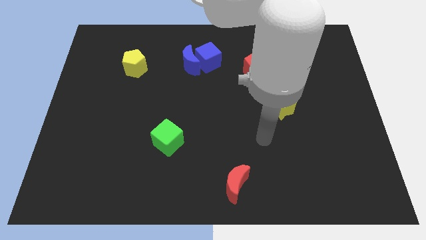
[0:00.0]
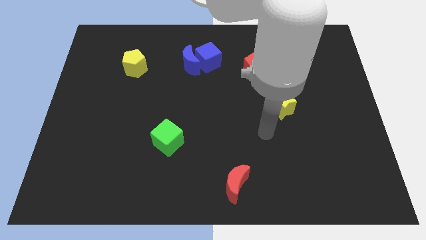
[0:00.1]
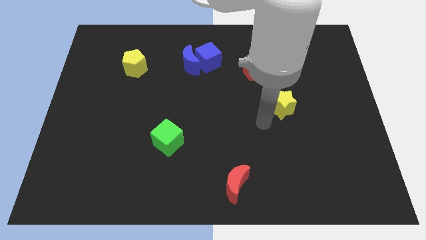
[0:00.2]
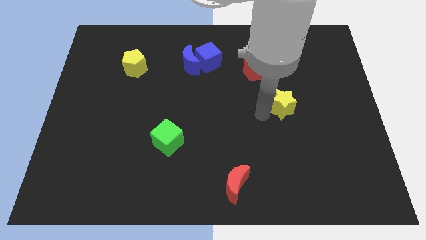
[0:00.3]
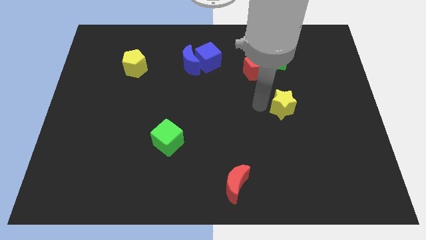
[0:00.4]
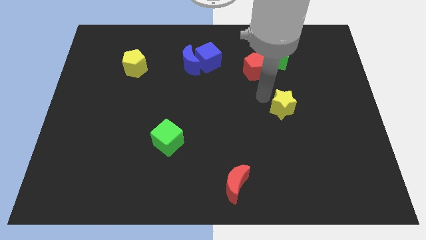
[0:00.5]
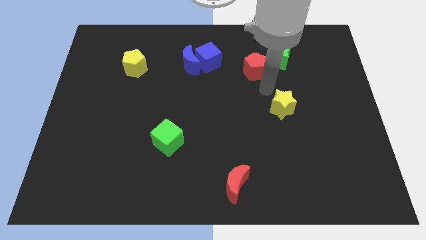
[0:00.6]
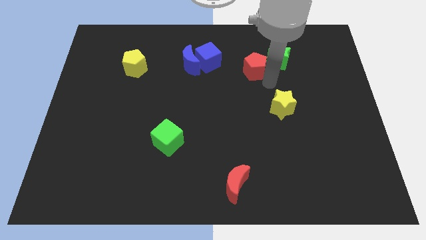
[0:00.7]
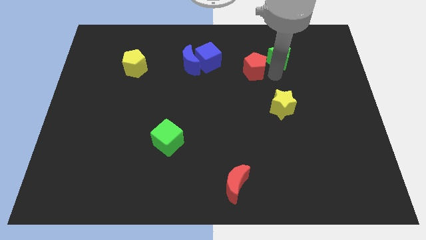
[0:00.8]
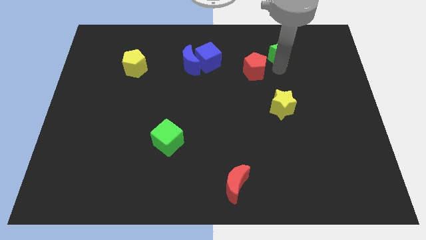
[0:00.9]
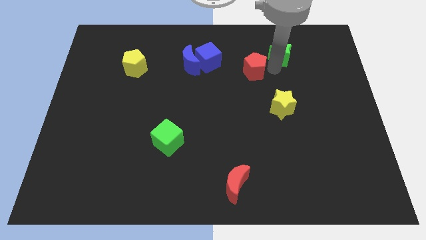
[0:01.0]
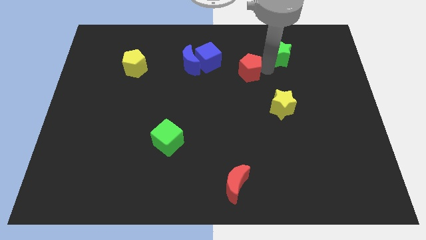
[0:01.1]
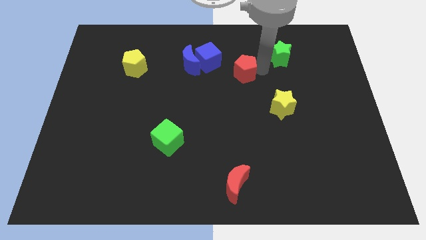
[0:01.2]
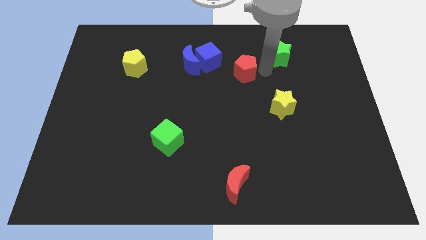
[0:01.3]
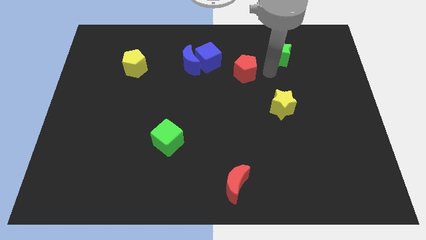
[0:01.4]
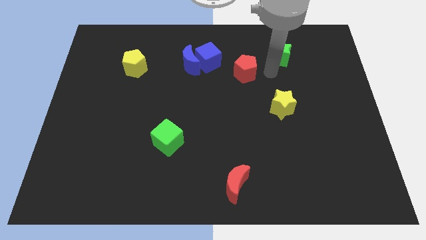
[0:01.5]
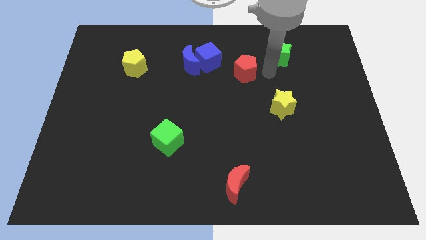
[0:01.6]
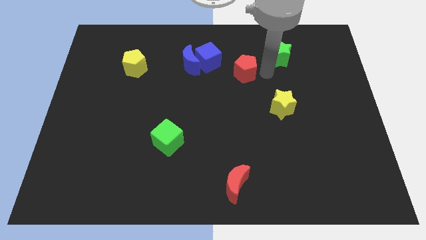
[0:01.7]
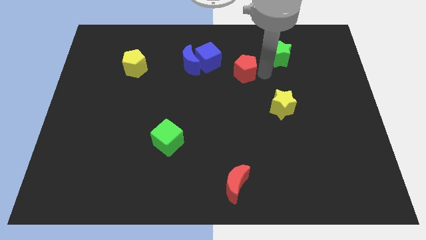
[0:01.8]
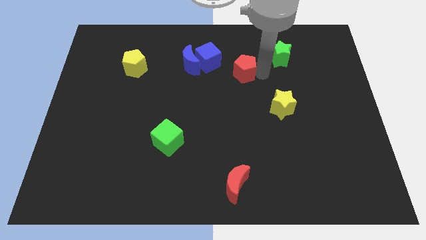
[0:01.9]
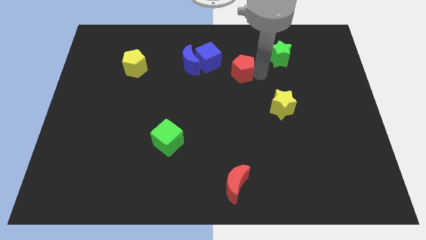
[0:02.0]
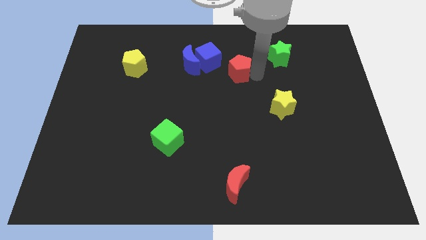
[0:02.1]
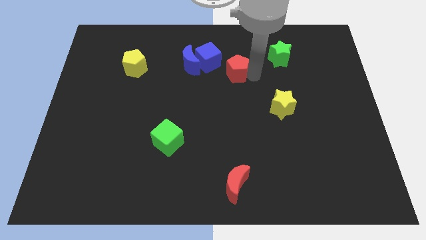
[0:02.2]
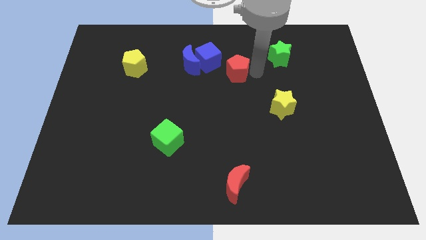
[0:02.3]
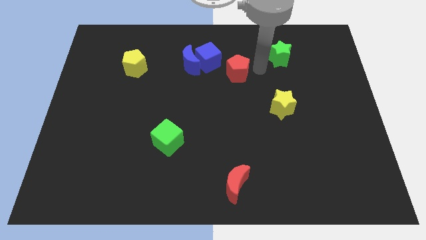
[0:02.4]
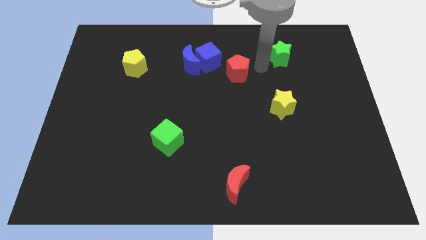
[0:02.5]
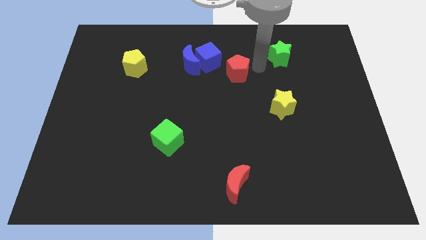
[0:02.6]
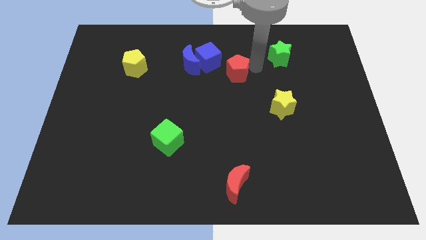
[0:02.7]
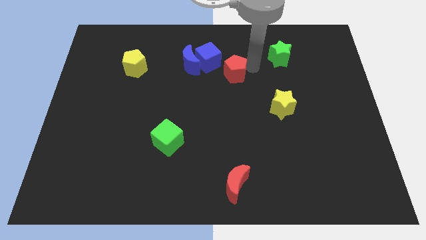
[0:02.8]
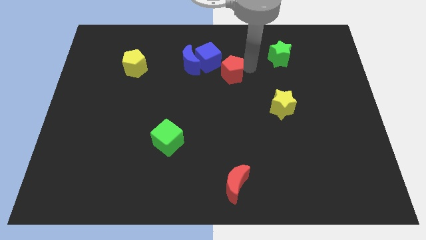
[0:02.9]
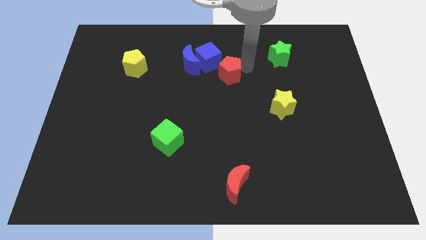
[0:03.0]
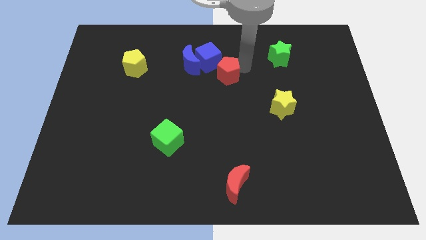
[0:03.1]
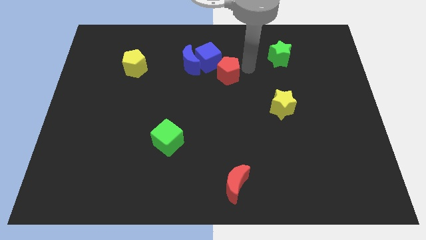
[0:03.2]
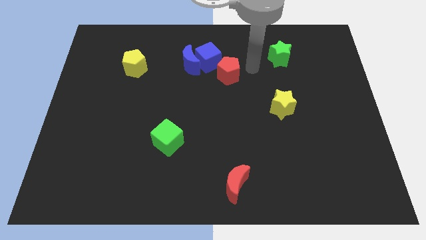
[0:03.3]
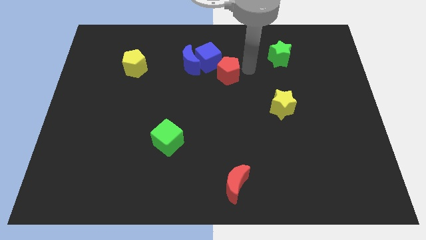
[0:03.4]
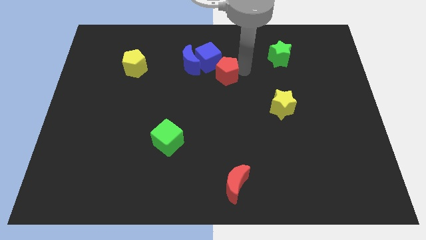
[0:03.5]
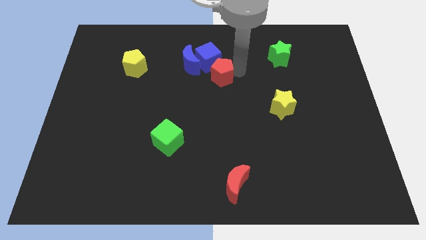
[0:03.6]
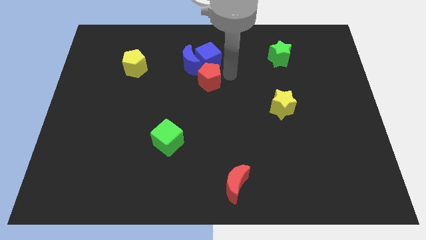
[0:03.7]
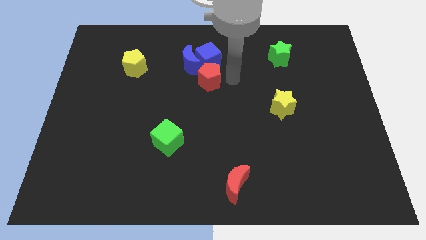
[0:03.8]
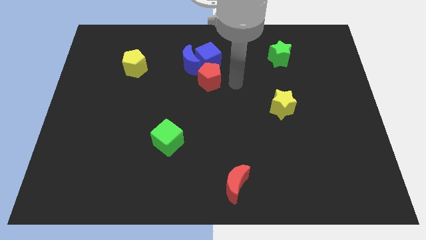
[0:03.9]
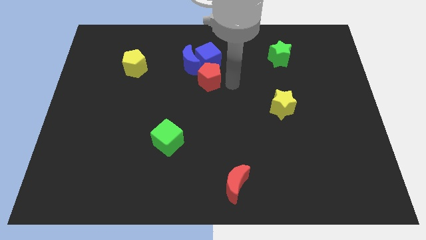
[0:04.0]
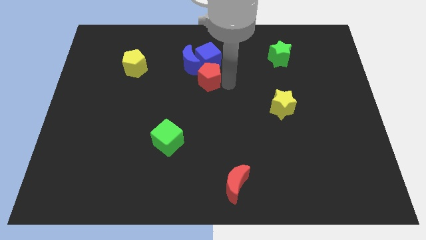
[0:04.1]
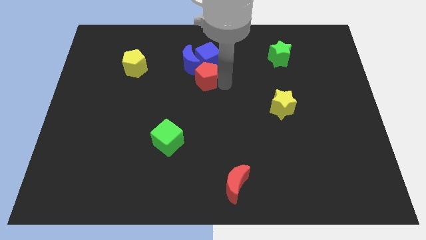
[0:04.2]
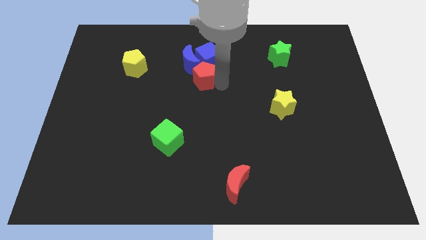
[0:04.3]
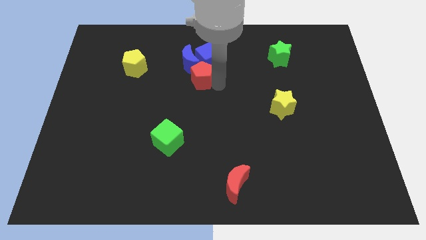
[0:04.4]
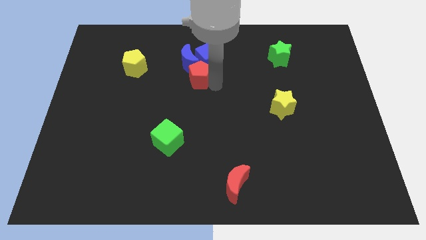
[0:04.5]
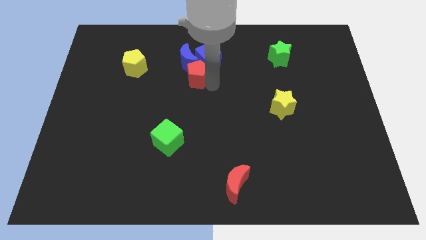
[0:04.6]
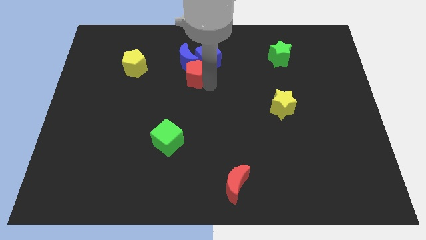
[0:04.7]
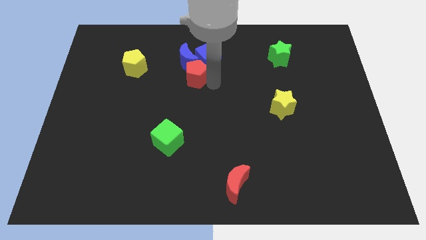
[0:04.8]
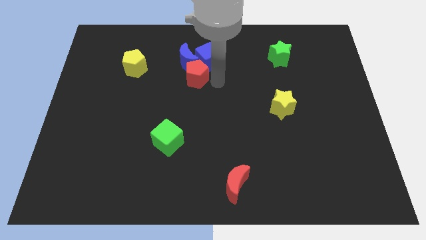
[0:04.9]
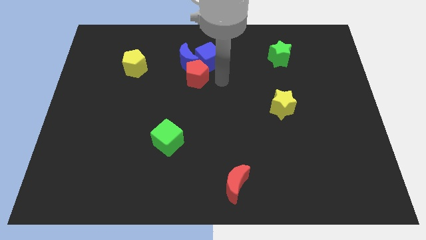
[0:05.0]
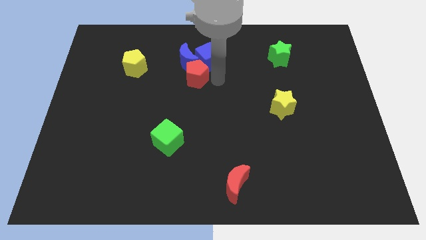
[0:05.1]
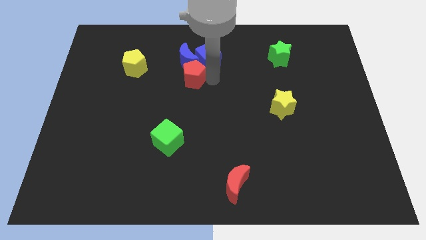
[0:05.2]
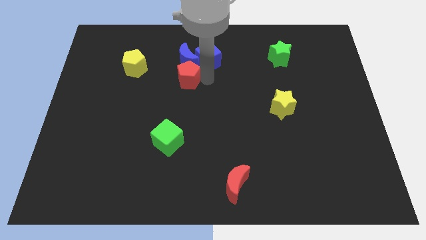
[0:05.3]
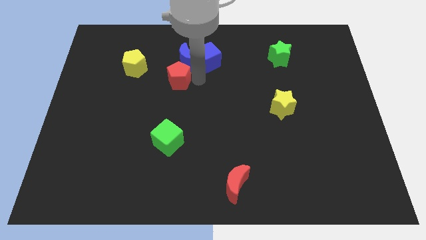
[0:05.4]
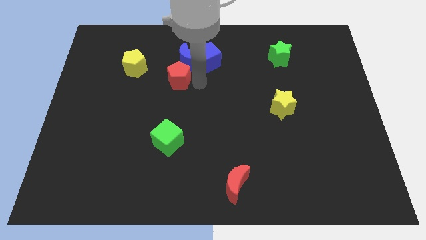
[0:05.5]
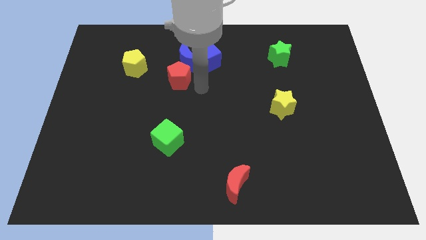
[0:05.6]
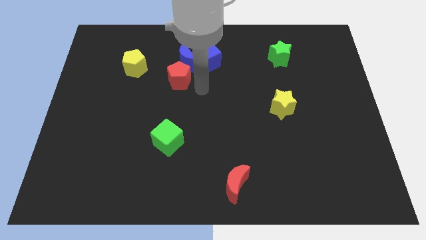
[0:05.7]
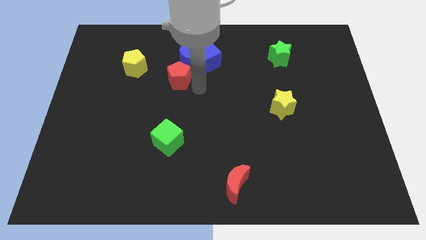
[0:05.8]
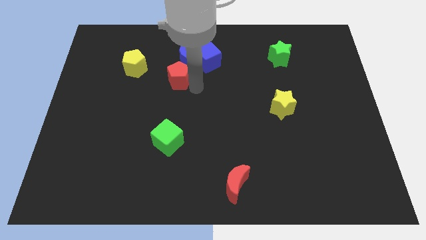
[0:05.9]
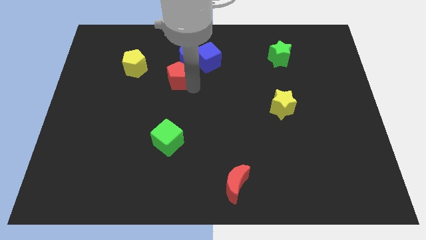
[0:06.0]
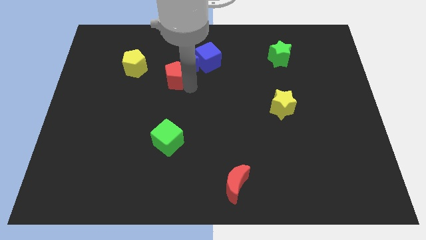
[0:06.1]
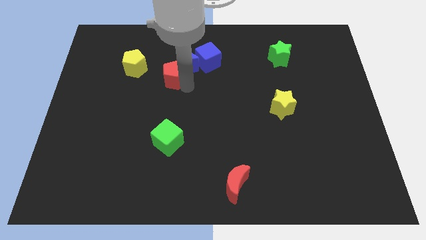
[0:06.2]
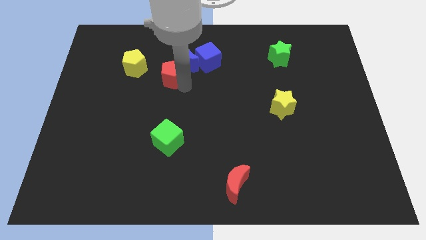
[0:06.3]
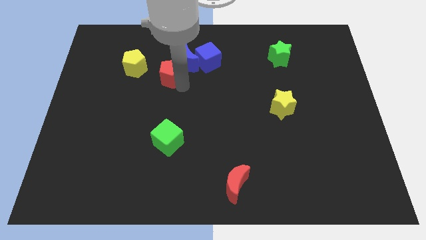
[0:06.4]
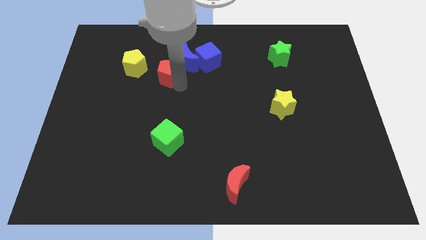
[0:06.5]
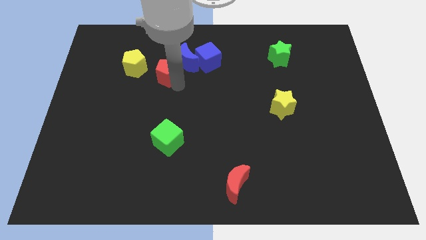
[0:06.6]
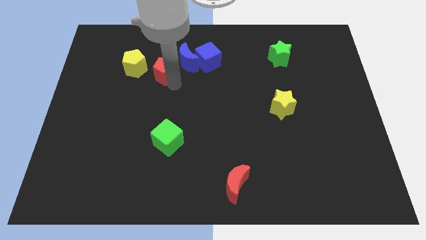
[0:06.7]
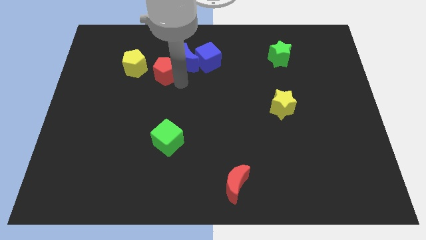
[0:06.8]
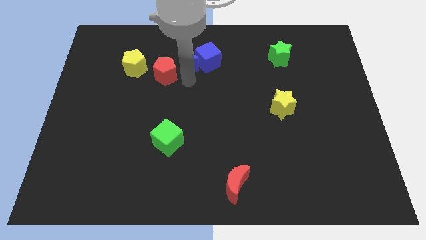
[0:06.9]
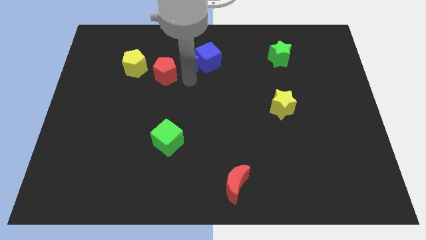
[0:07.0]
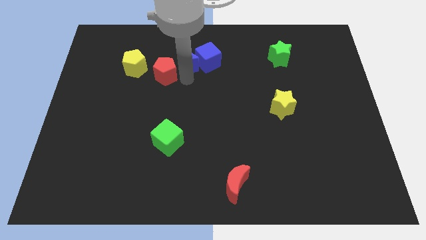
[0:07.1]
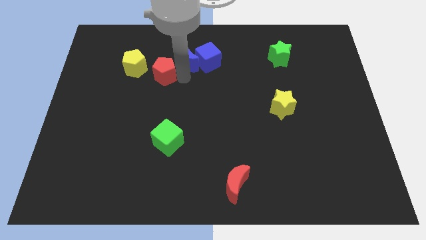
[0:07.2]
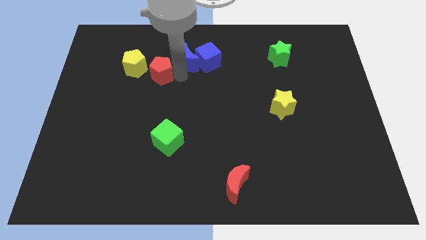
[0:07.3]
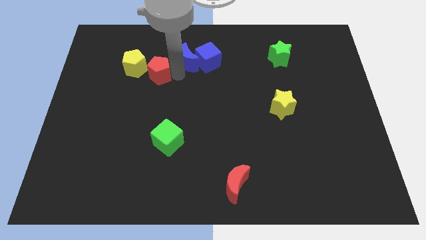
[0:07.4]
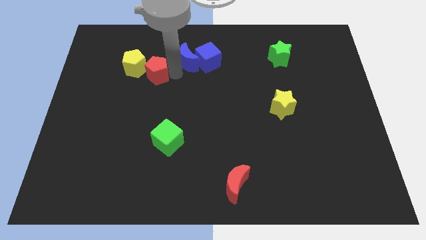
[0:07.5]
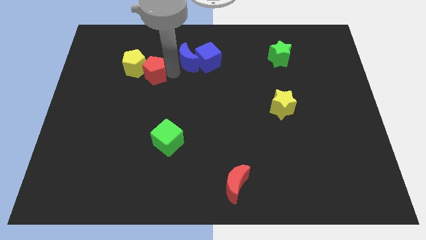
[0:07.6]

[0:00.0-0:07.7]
slide the red pentagon close to the yellow pentagon
